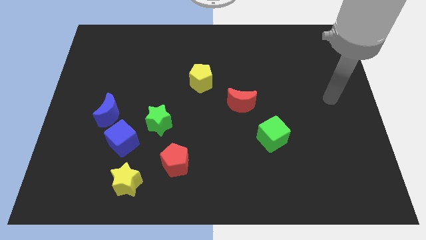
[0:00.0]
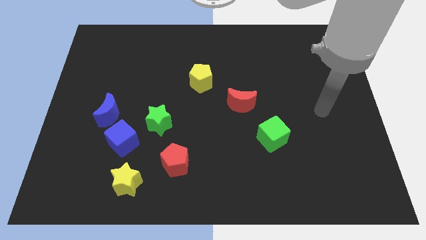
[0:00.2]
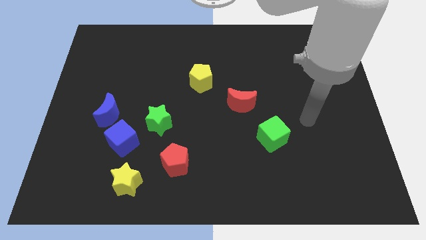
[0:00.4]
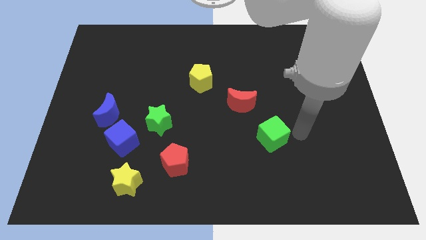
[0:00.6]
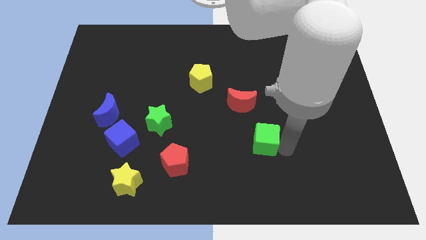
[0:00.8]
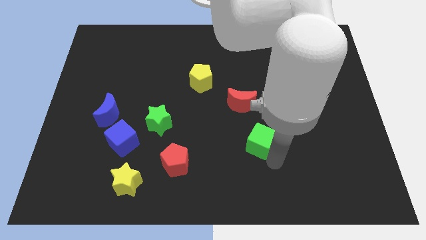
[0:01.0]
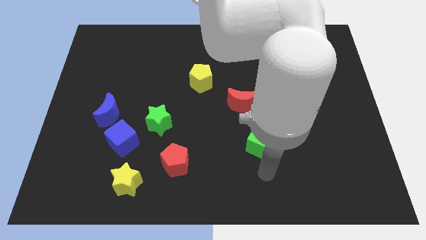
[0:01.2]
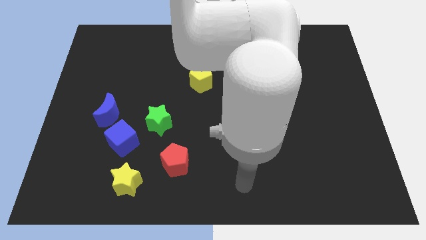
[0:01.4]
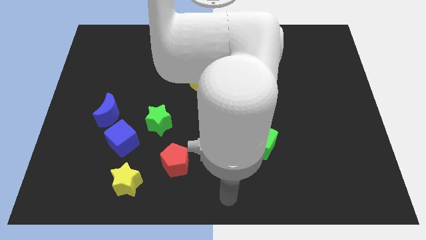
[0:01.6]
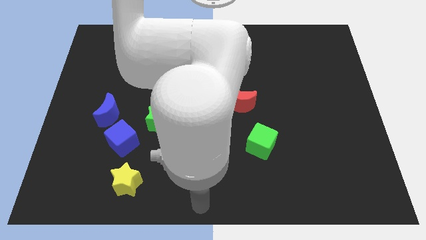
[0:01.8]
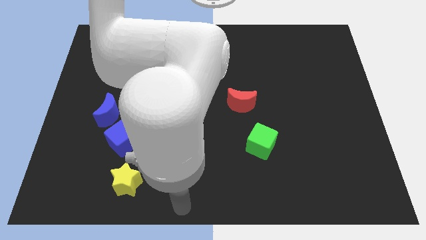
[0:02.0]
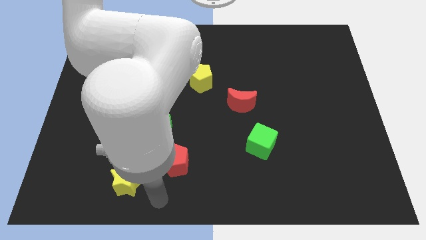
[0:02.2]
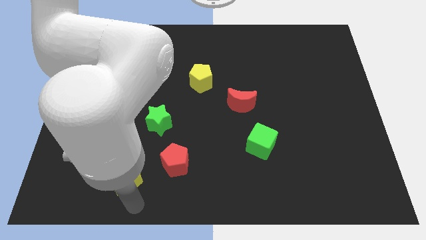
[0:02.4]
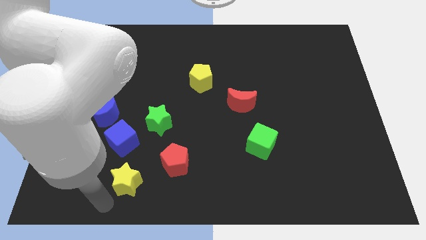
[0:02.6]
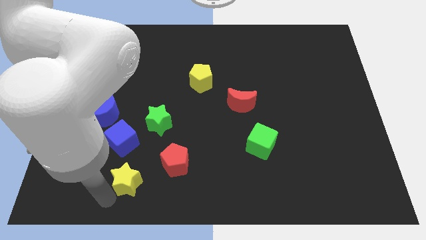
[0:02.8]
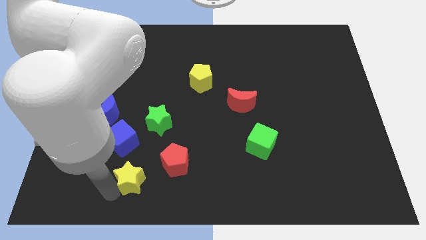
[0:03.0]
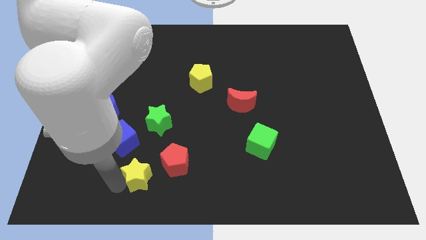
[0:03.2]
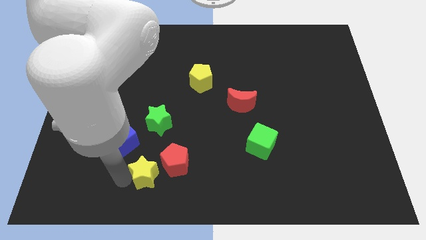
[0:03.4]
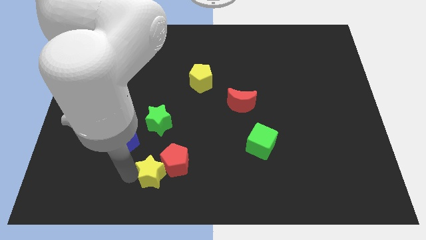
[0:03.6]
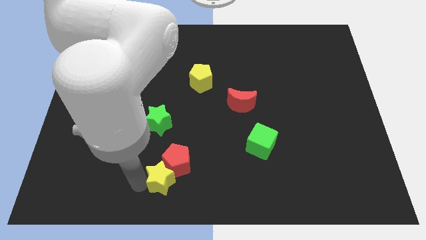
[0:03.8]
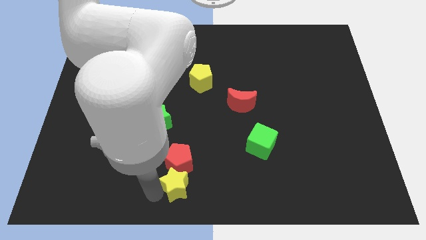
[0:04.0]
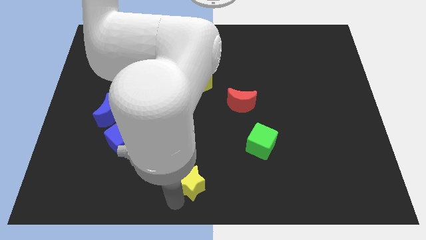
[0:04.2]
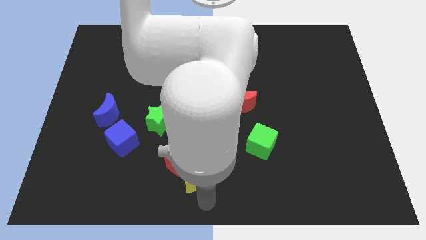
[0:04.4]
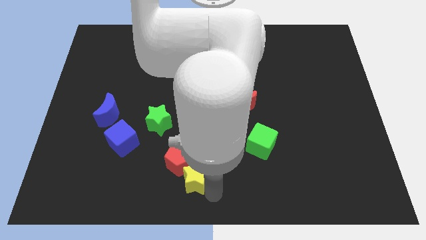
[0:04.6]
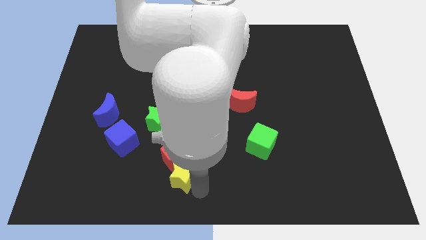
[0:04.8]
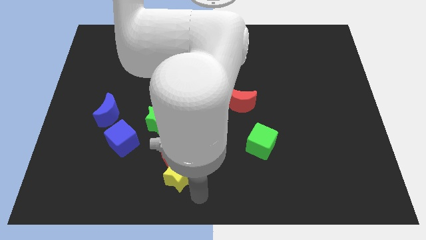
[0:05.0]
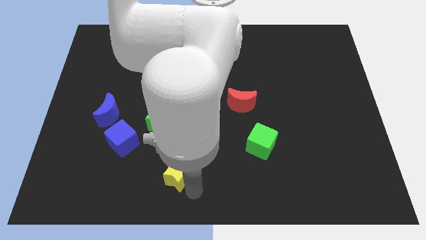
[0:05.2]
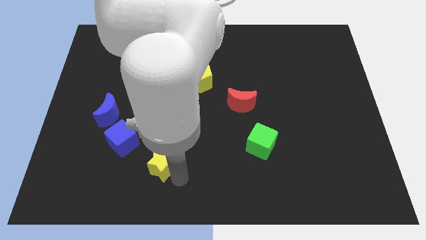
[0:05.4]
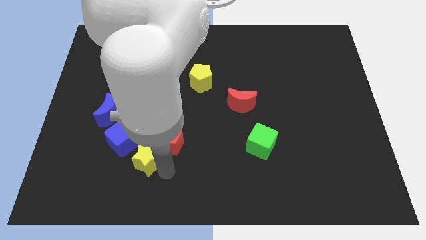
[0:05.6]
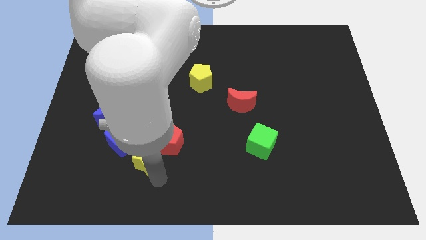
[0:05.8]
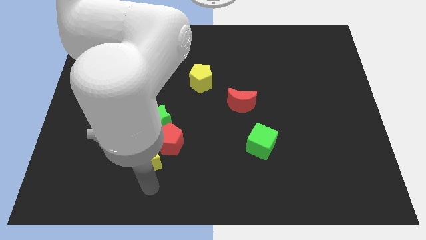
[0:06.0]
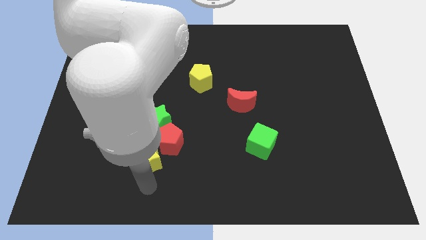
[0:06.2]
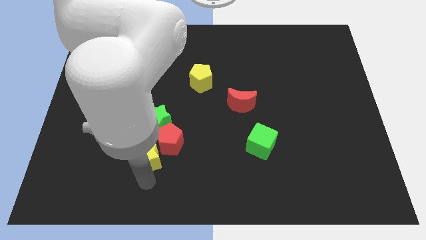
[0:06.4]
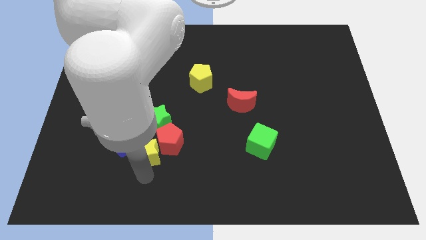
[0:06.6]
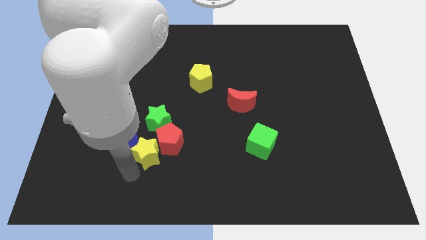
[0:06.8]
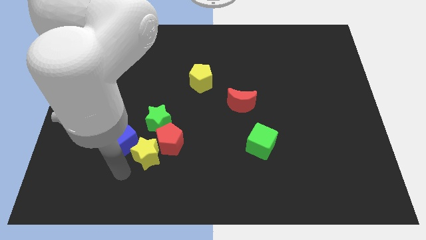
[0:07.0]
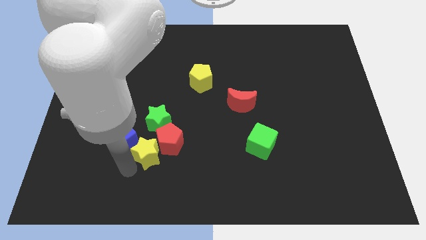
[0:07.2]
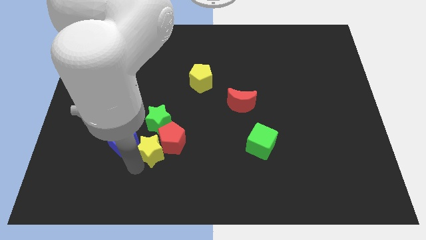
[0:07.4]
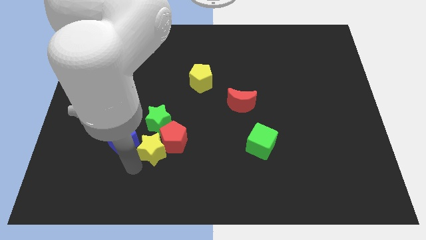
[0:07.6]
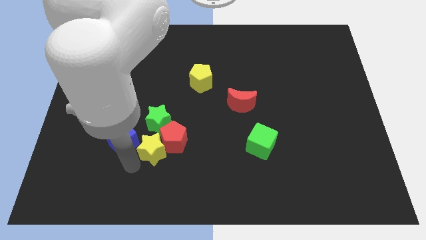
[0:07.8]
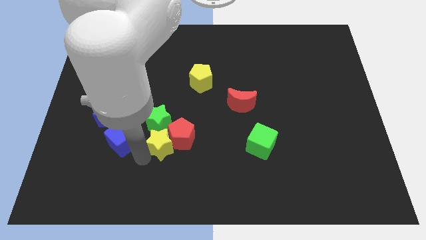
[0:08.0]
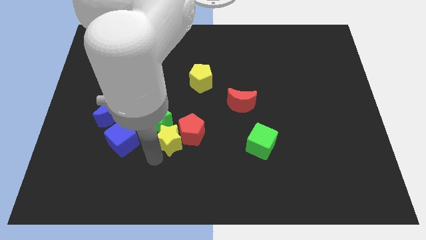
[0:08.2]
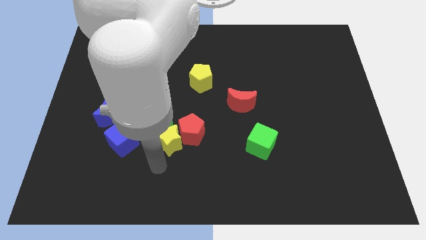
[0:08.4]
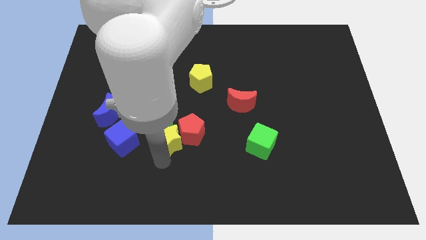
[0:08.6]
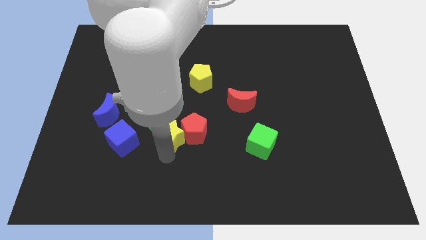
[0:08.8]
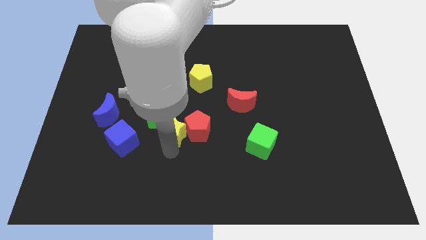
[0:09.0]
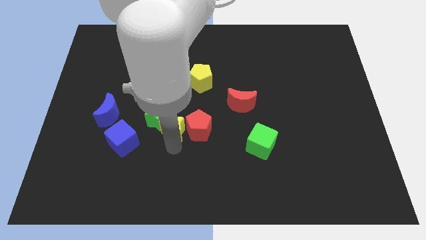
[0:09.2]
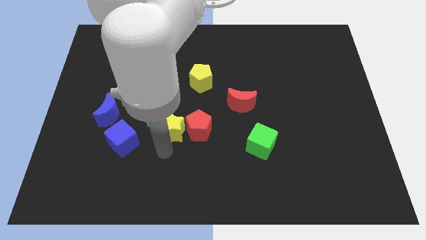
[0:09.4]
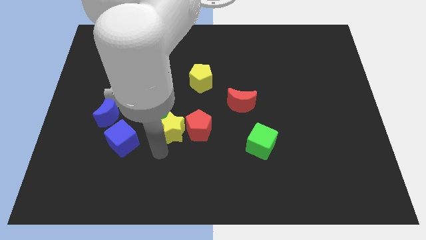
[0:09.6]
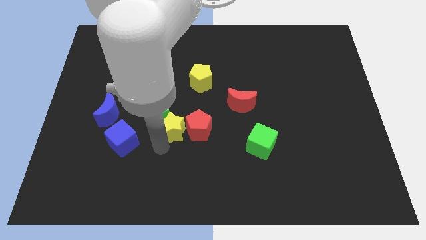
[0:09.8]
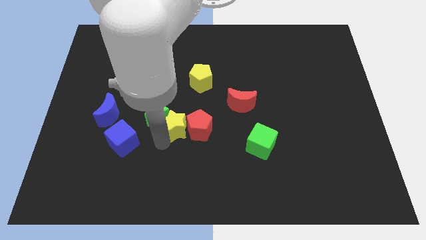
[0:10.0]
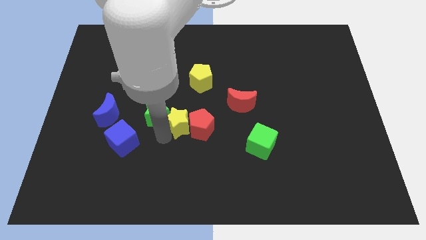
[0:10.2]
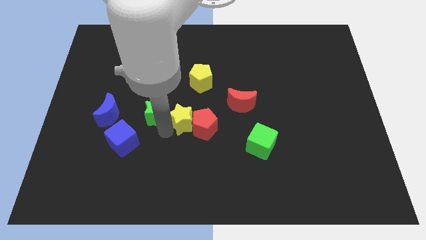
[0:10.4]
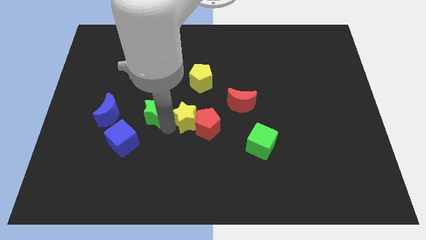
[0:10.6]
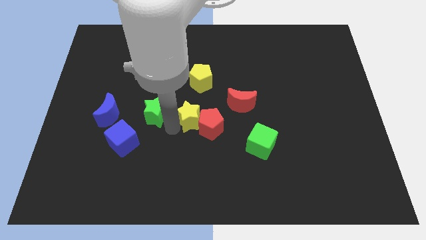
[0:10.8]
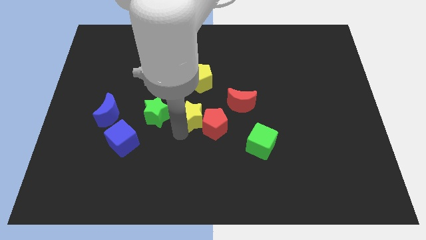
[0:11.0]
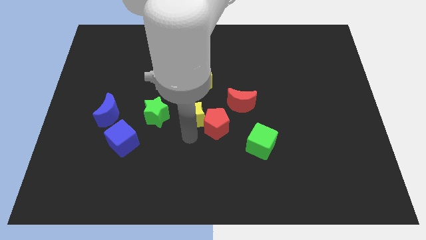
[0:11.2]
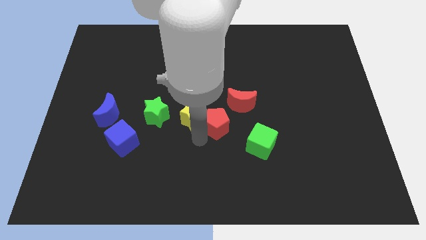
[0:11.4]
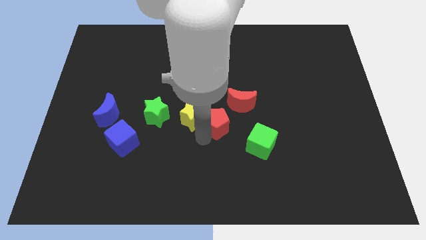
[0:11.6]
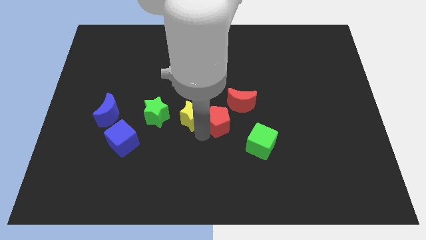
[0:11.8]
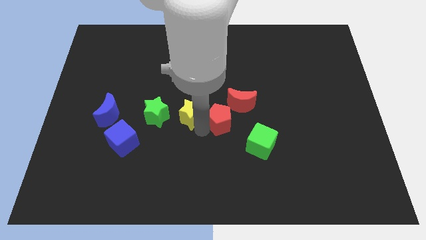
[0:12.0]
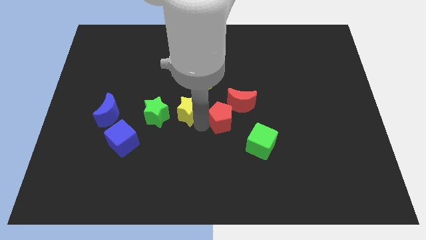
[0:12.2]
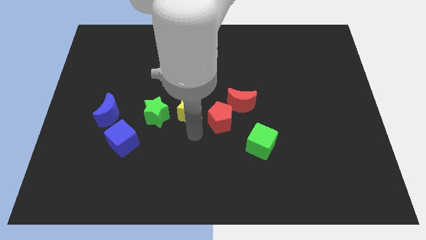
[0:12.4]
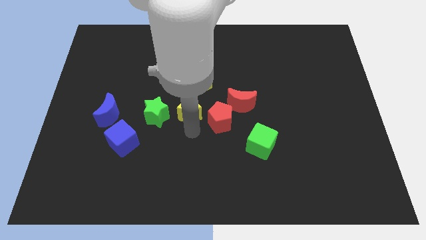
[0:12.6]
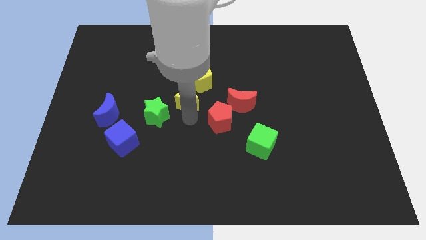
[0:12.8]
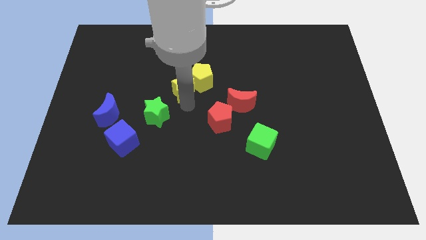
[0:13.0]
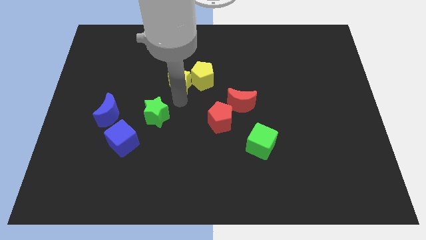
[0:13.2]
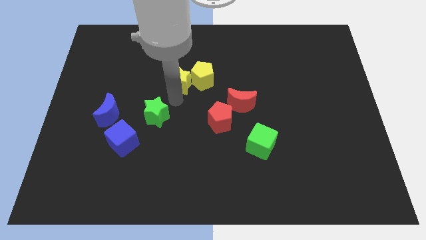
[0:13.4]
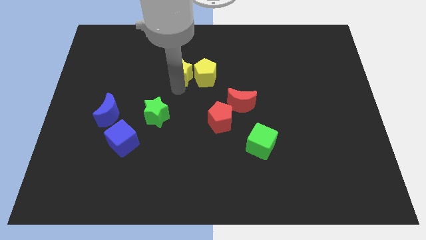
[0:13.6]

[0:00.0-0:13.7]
move the yellow star diagonally up and to the left of the yellow pentagon

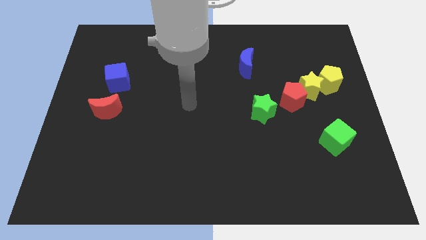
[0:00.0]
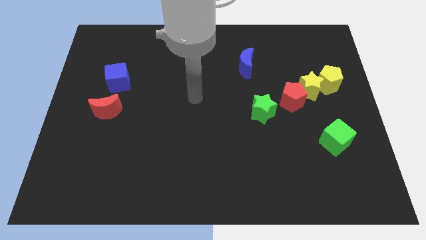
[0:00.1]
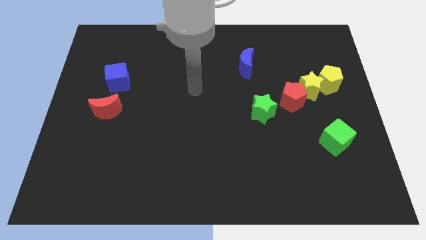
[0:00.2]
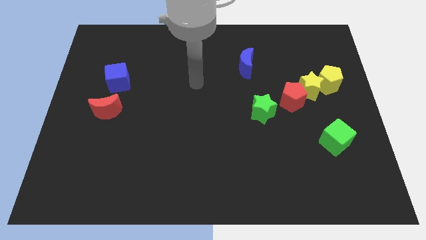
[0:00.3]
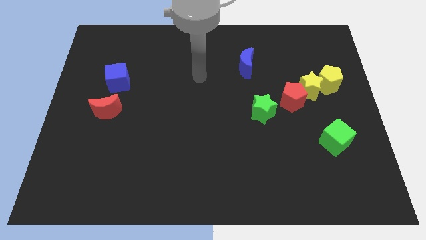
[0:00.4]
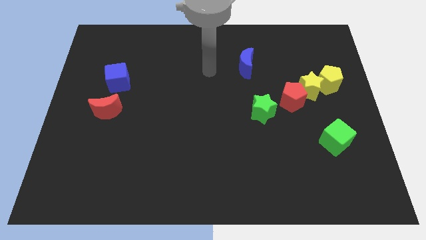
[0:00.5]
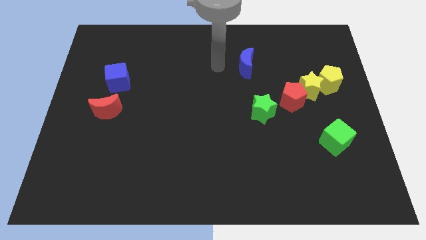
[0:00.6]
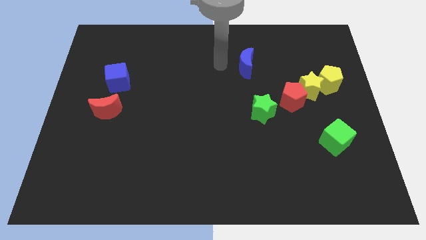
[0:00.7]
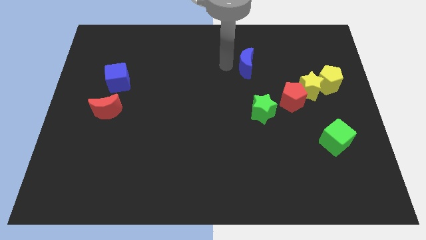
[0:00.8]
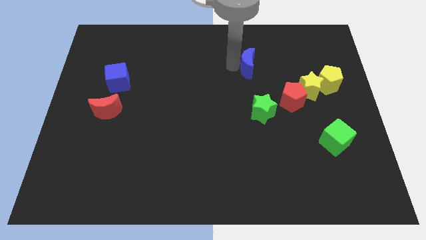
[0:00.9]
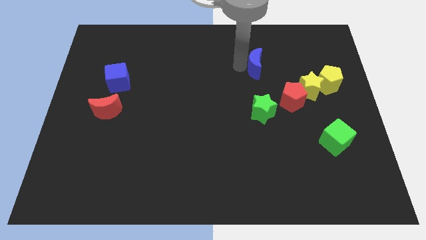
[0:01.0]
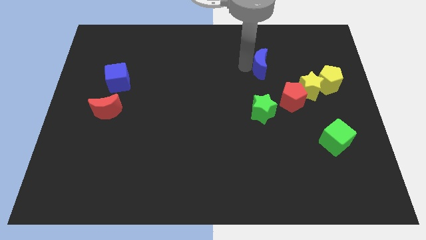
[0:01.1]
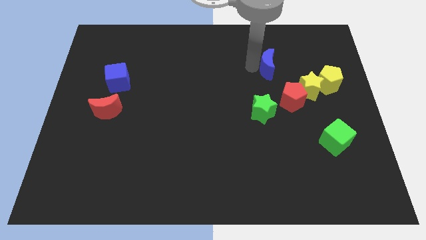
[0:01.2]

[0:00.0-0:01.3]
push the blue moon above the red pentagon
